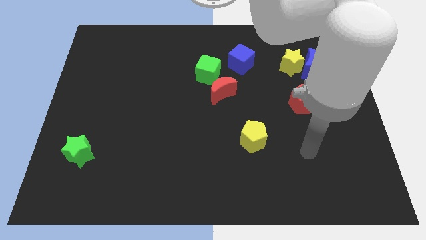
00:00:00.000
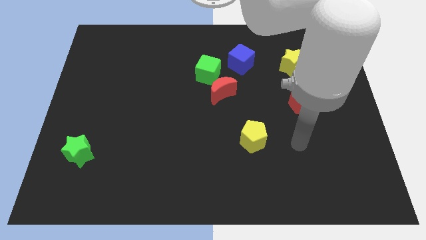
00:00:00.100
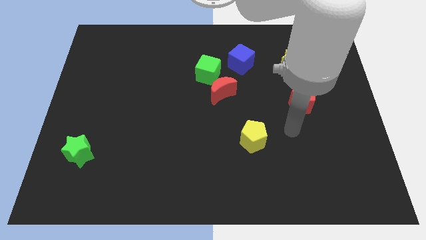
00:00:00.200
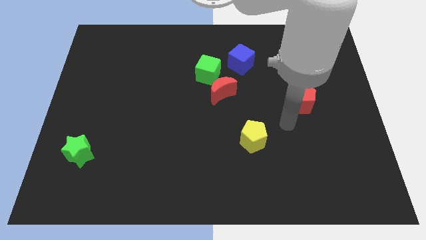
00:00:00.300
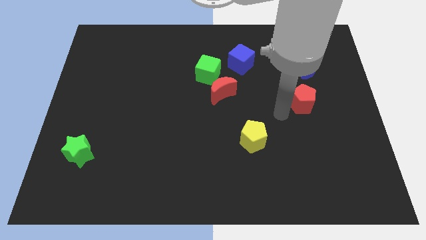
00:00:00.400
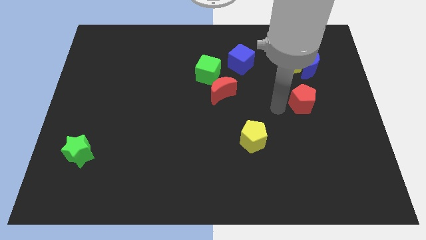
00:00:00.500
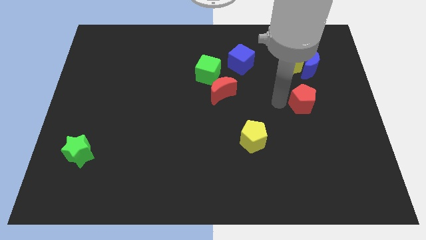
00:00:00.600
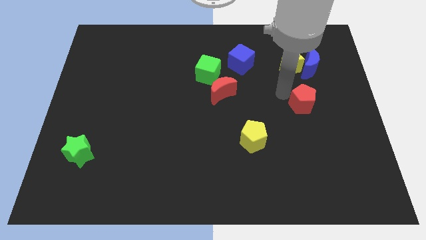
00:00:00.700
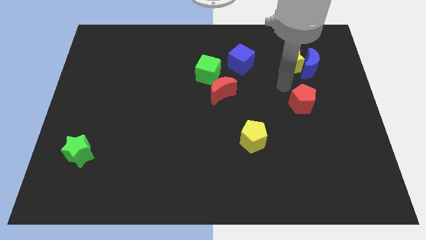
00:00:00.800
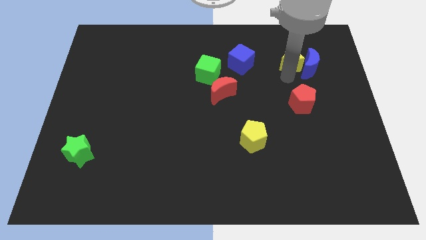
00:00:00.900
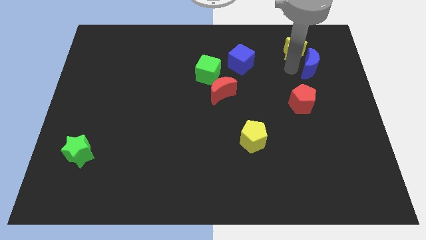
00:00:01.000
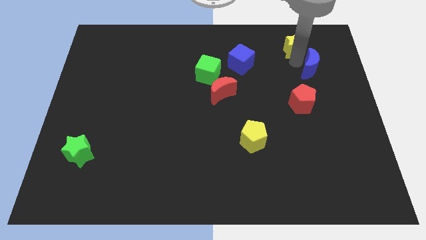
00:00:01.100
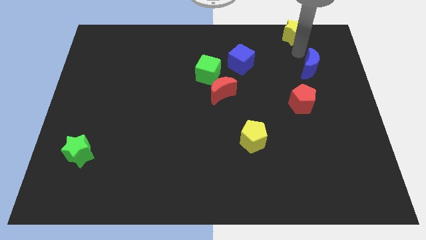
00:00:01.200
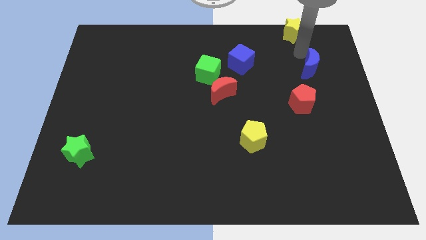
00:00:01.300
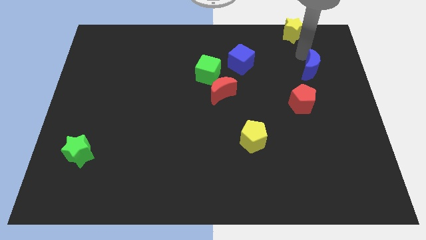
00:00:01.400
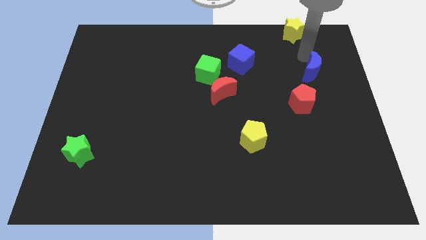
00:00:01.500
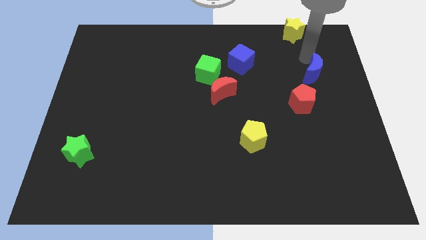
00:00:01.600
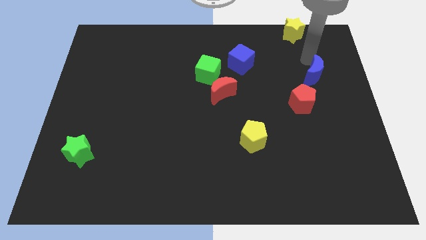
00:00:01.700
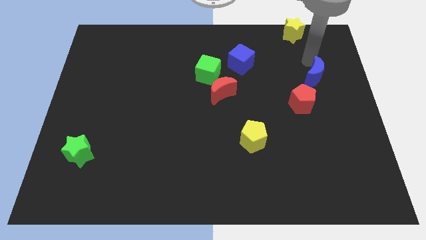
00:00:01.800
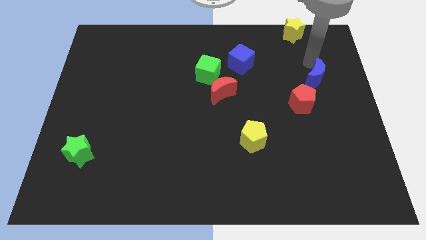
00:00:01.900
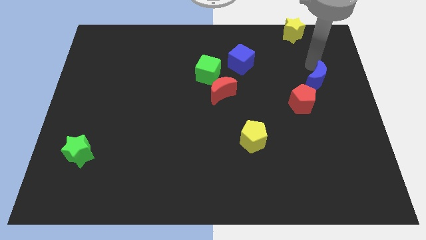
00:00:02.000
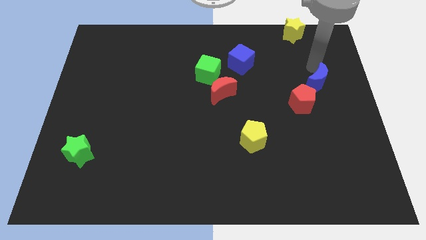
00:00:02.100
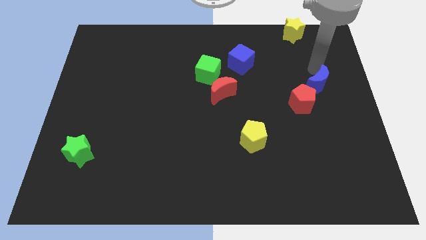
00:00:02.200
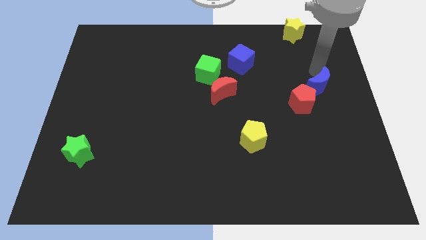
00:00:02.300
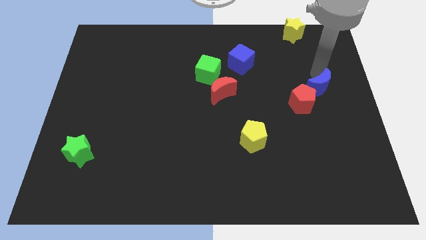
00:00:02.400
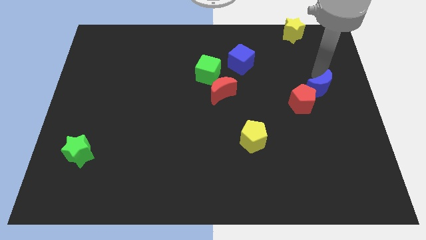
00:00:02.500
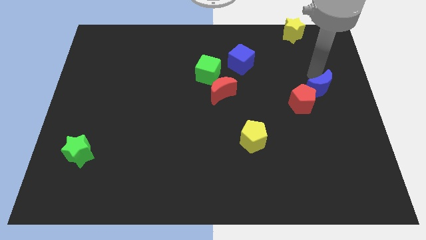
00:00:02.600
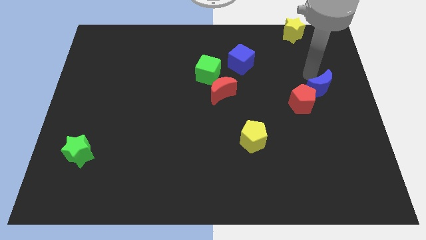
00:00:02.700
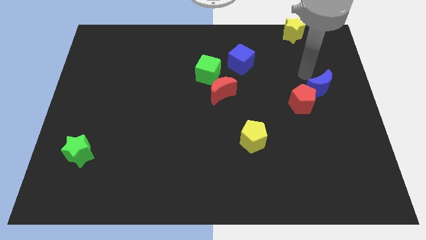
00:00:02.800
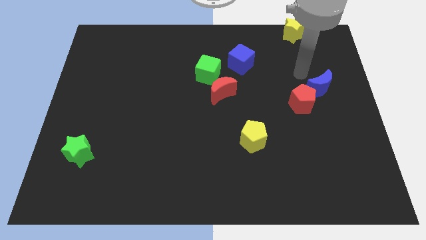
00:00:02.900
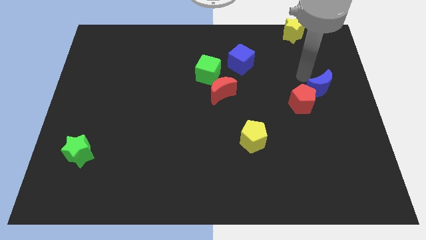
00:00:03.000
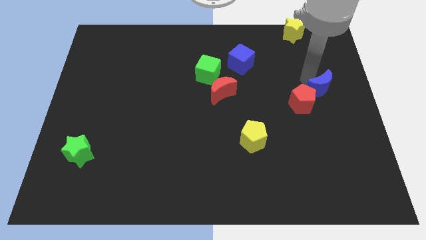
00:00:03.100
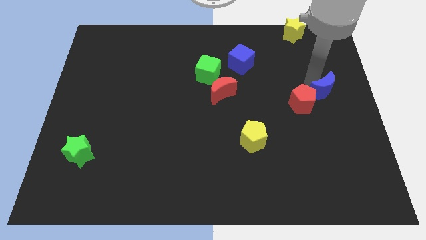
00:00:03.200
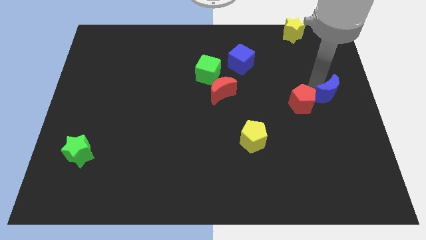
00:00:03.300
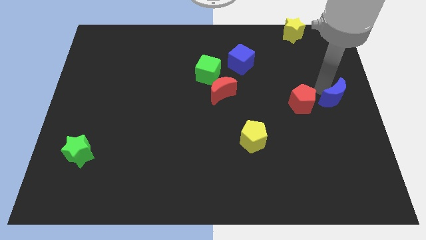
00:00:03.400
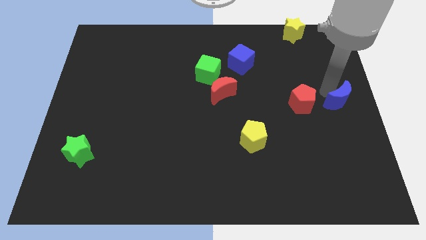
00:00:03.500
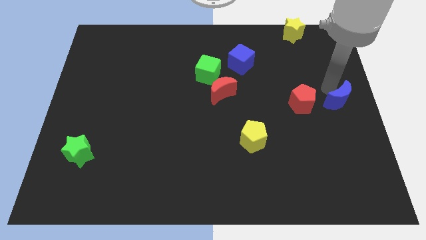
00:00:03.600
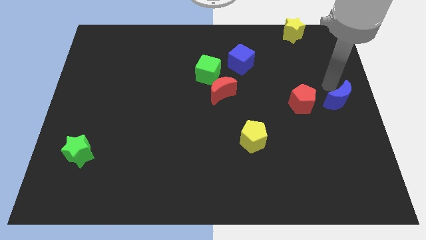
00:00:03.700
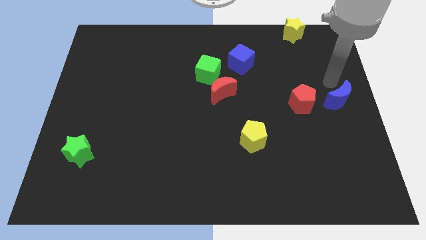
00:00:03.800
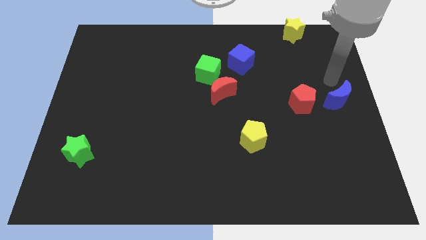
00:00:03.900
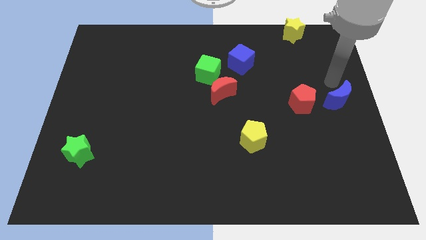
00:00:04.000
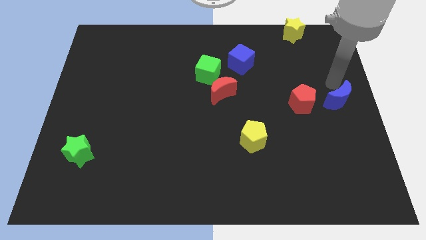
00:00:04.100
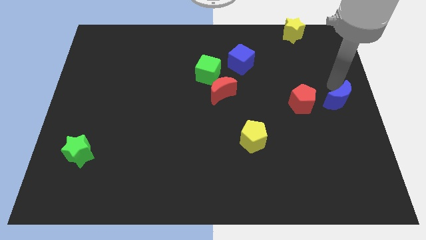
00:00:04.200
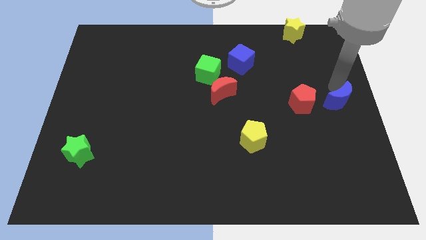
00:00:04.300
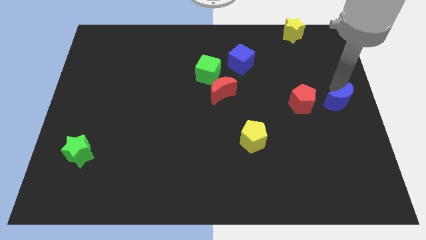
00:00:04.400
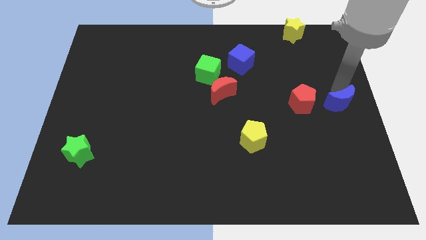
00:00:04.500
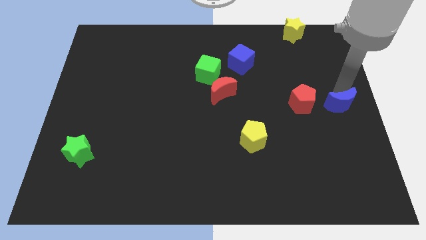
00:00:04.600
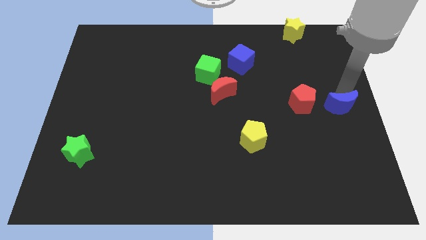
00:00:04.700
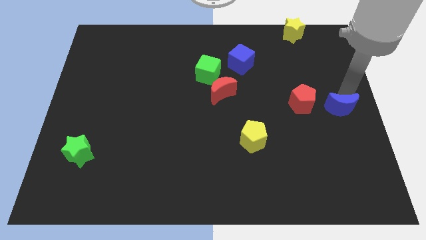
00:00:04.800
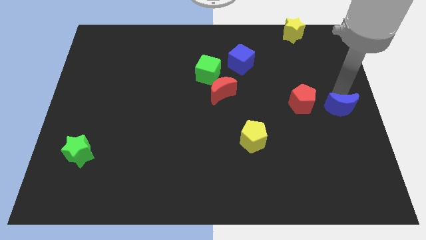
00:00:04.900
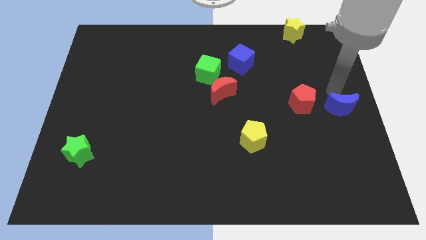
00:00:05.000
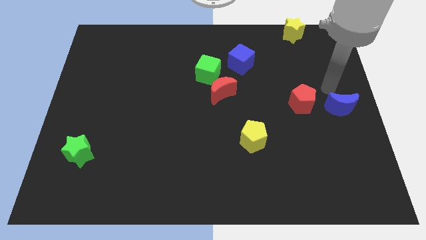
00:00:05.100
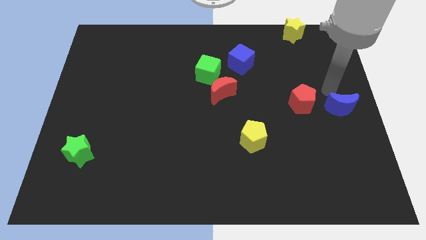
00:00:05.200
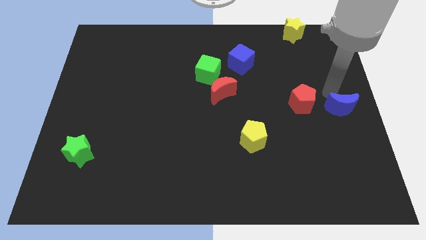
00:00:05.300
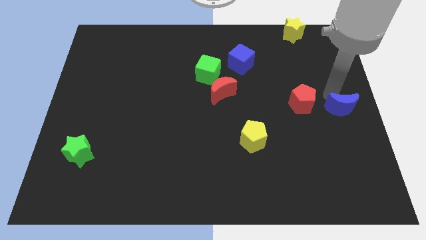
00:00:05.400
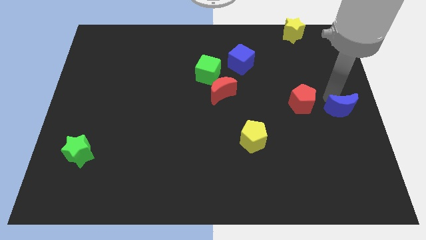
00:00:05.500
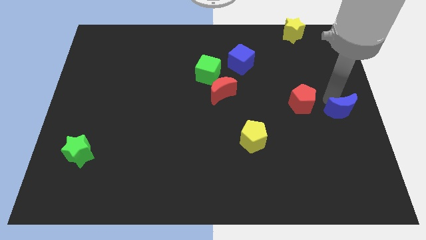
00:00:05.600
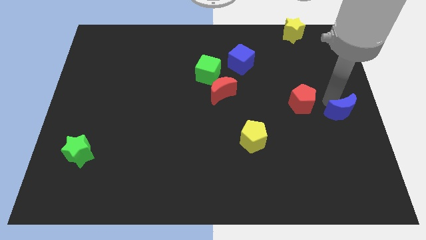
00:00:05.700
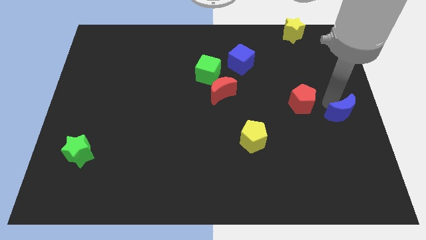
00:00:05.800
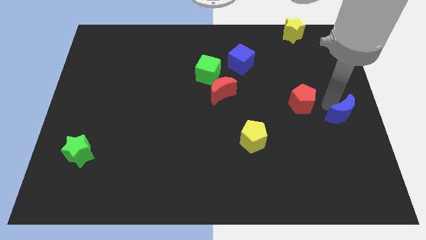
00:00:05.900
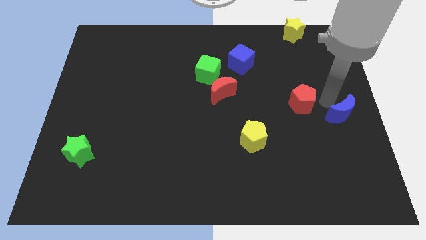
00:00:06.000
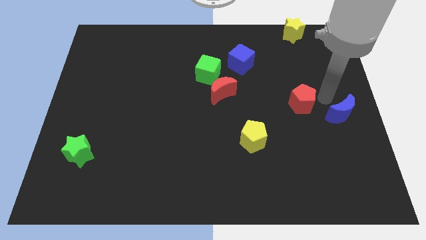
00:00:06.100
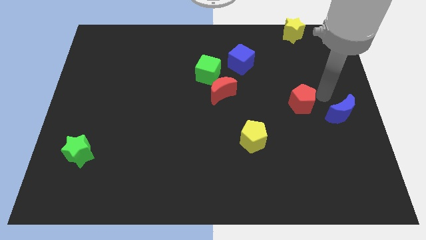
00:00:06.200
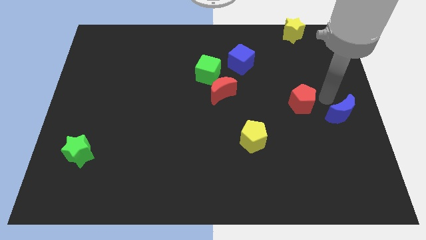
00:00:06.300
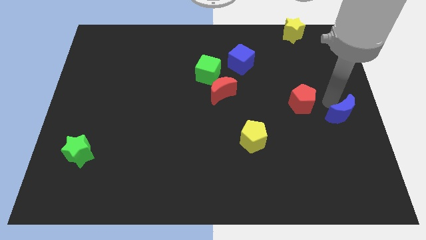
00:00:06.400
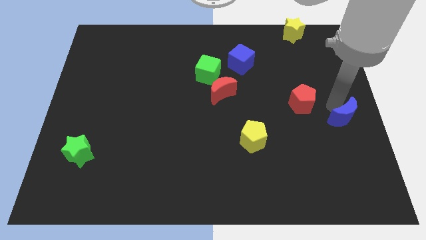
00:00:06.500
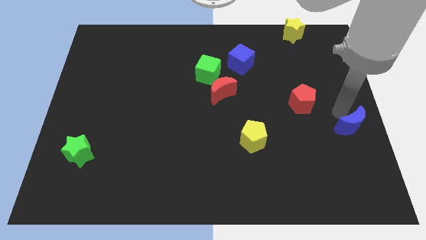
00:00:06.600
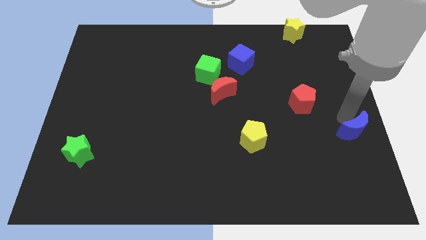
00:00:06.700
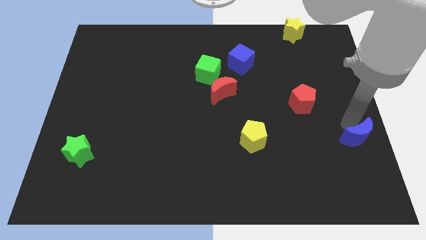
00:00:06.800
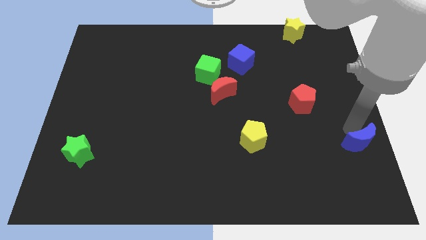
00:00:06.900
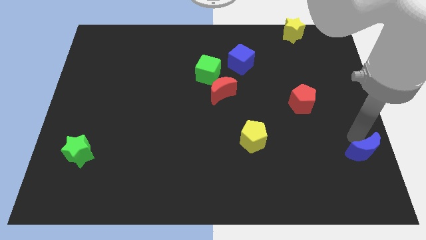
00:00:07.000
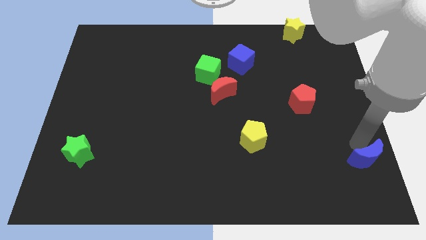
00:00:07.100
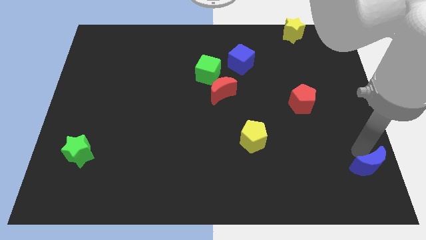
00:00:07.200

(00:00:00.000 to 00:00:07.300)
push the blue moon to the bottom right

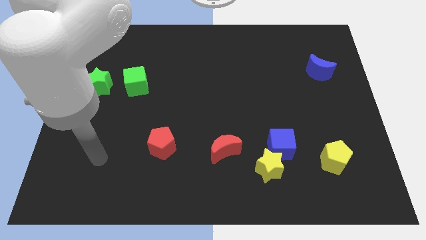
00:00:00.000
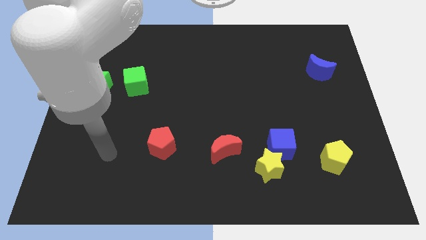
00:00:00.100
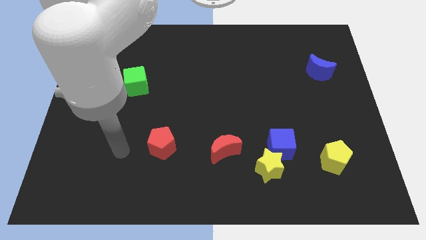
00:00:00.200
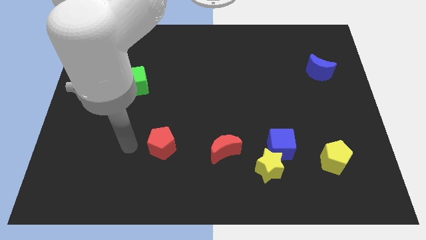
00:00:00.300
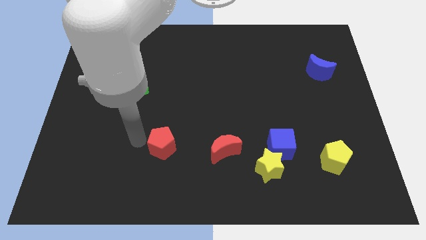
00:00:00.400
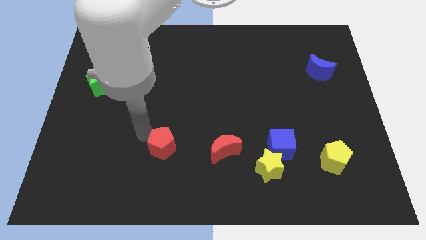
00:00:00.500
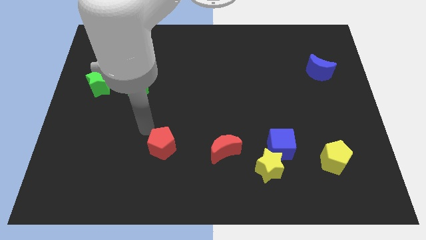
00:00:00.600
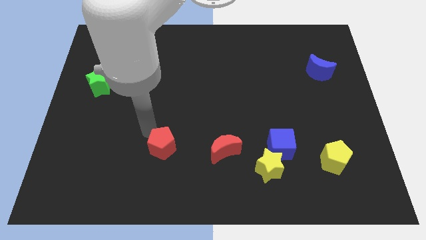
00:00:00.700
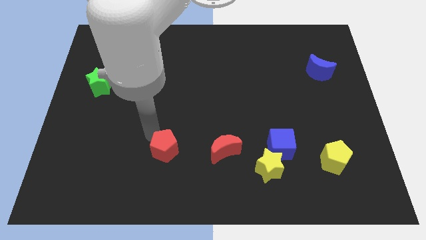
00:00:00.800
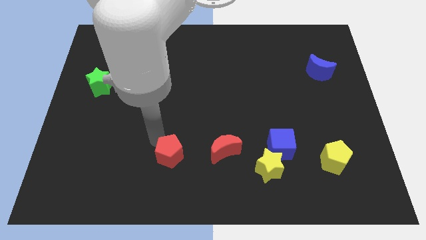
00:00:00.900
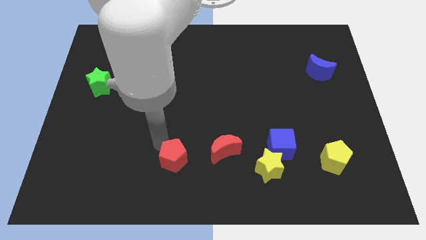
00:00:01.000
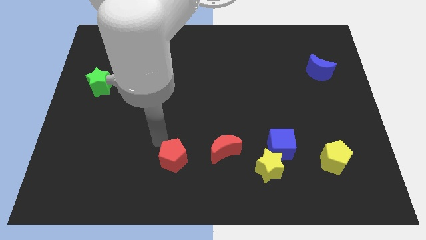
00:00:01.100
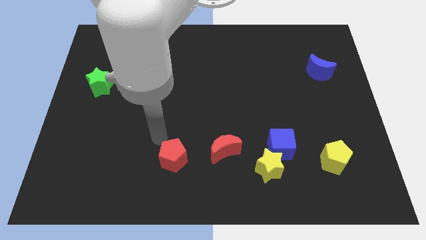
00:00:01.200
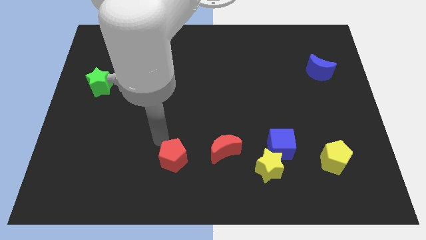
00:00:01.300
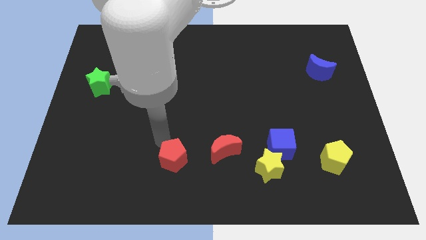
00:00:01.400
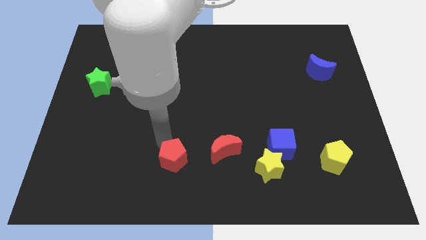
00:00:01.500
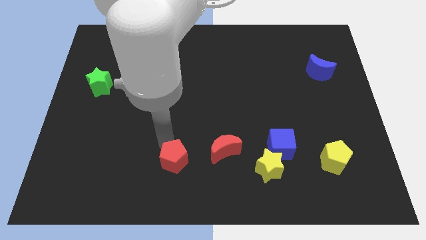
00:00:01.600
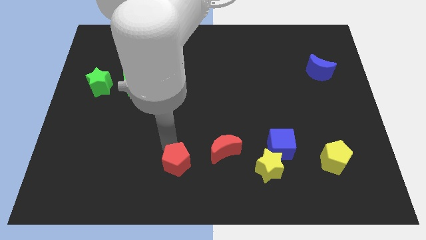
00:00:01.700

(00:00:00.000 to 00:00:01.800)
move the red pentagon to the bottom
